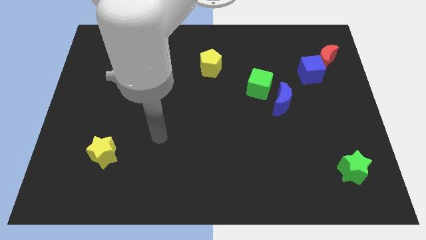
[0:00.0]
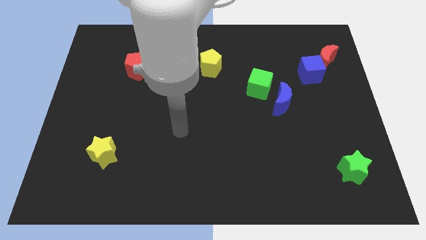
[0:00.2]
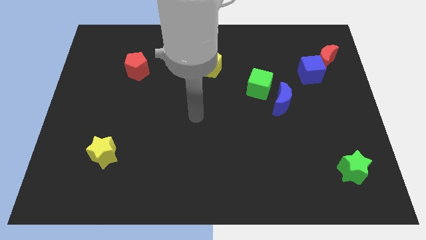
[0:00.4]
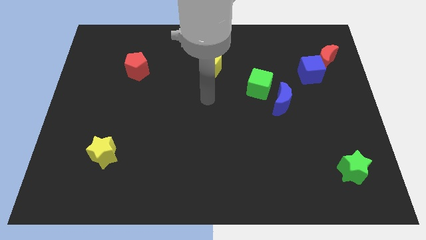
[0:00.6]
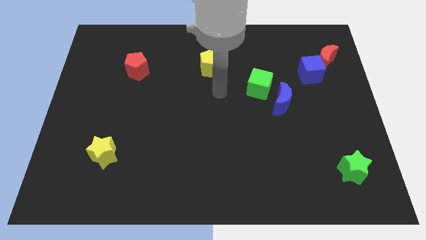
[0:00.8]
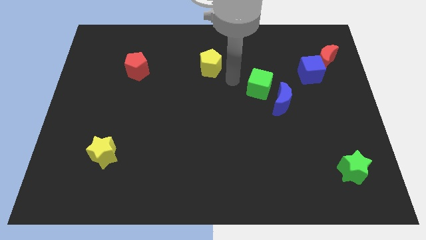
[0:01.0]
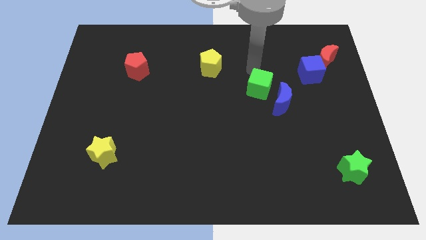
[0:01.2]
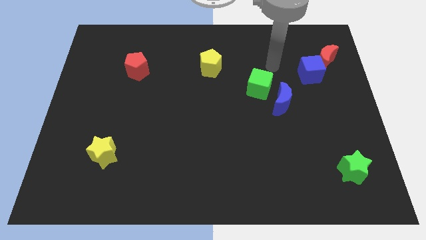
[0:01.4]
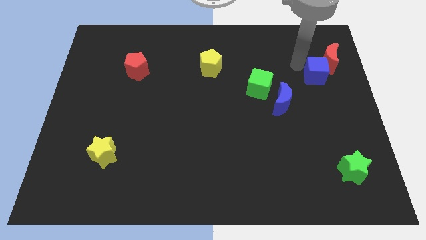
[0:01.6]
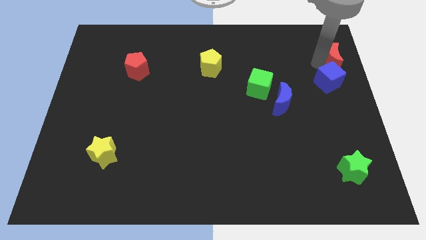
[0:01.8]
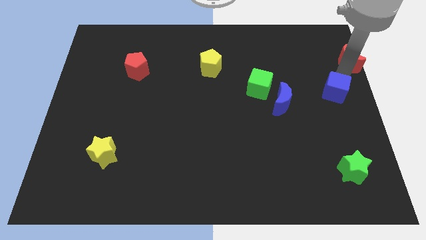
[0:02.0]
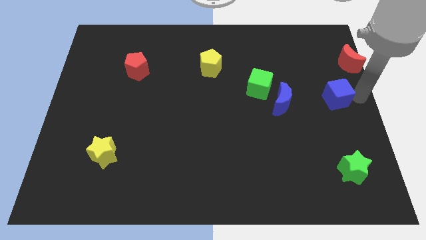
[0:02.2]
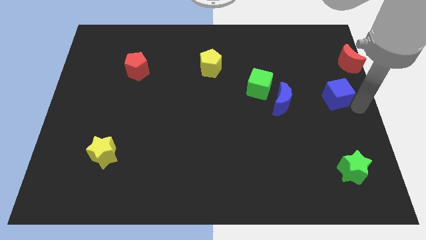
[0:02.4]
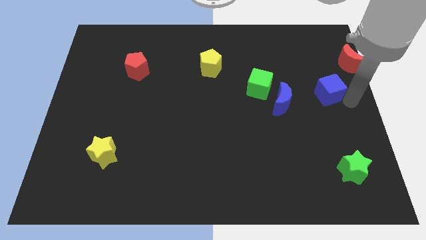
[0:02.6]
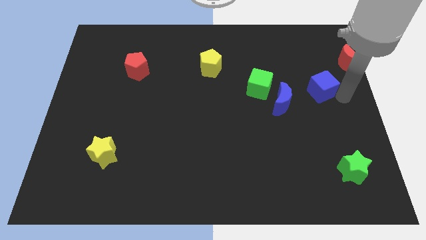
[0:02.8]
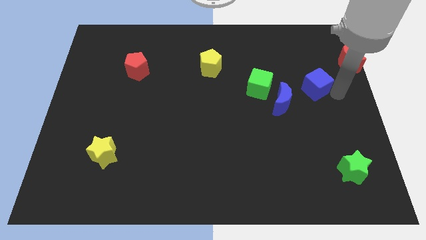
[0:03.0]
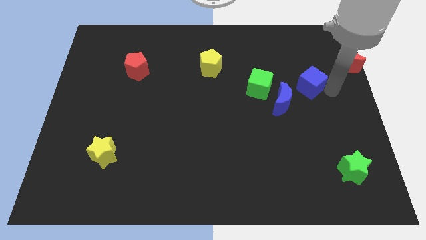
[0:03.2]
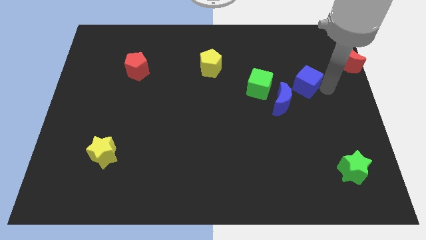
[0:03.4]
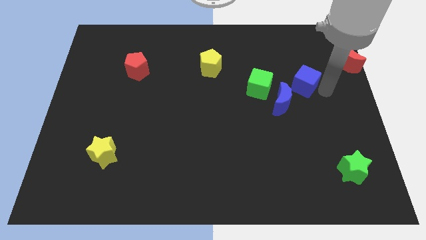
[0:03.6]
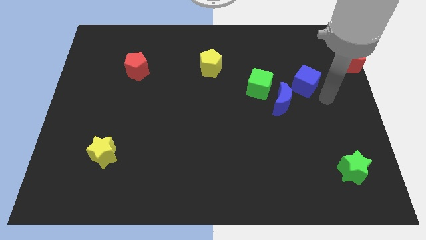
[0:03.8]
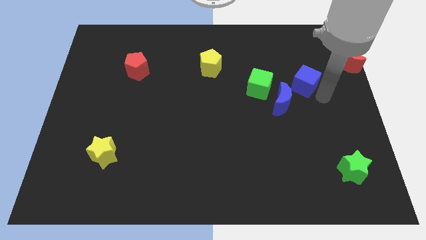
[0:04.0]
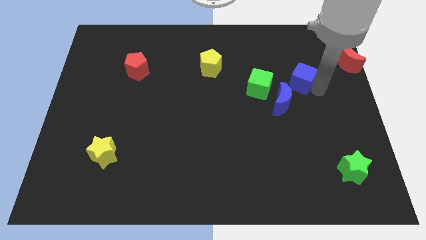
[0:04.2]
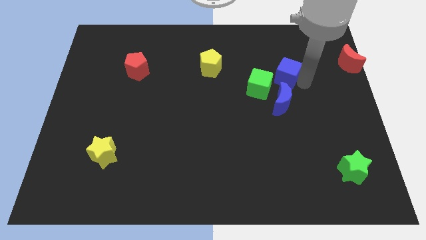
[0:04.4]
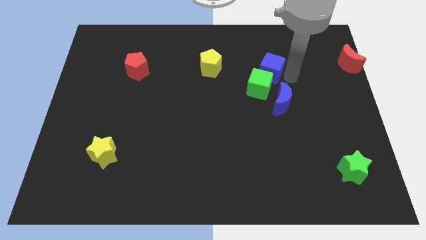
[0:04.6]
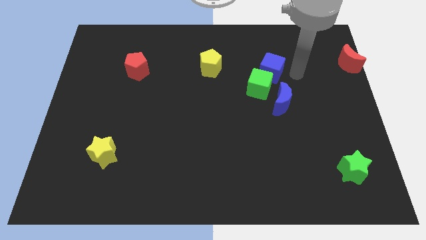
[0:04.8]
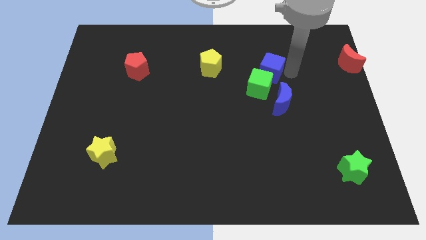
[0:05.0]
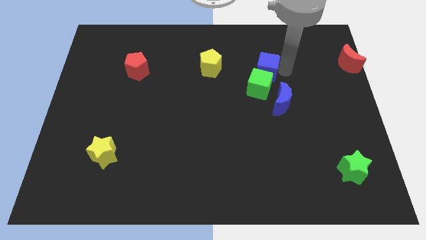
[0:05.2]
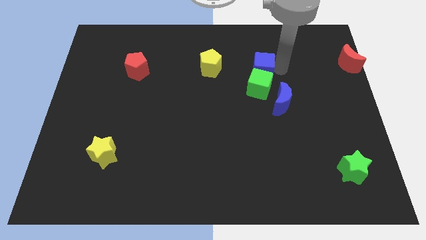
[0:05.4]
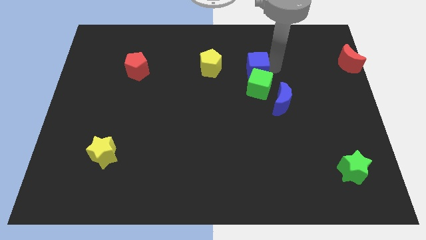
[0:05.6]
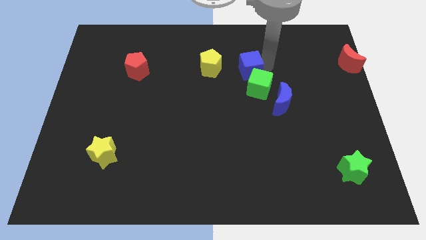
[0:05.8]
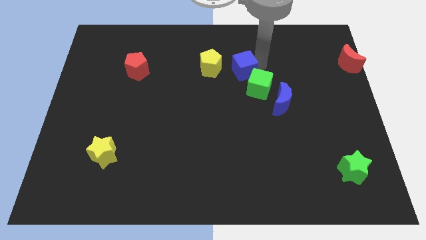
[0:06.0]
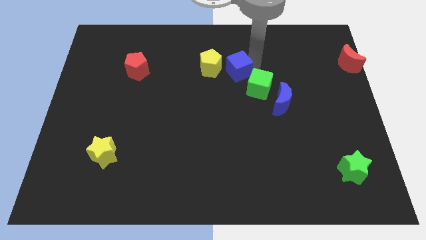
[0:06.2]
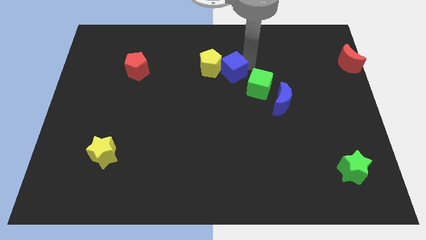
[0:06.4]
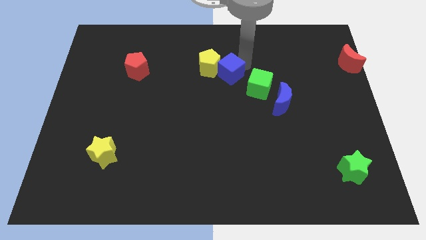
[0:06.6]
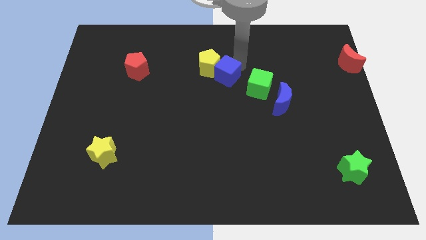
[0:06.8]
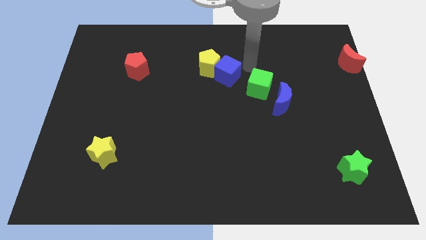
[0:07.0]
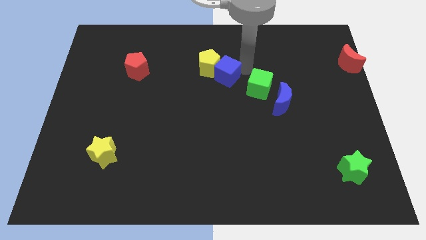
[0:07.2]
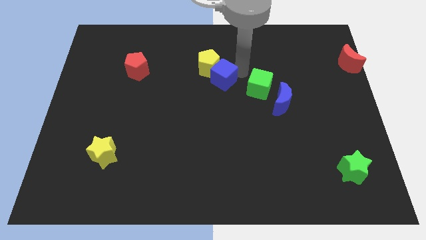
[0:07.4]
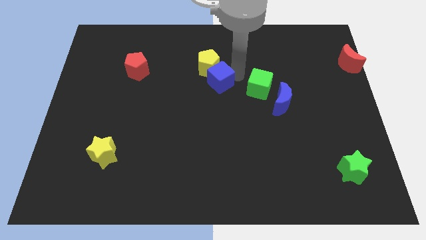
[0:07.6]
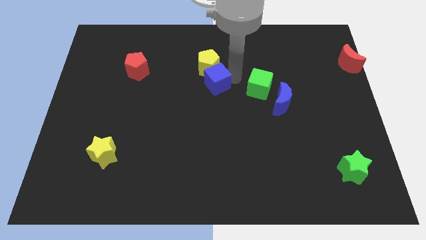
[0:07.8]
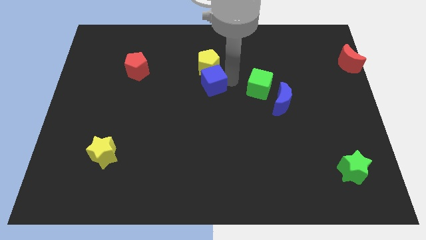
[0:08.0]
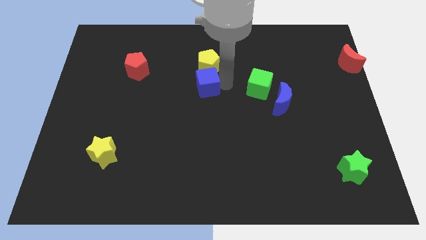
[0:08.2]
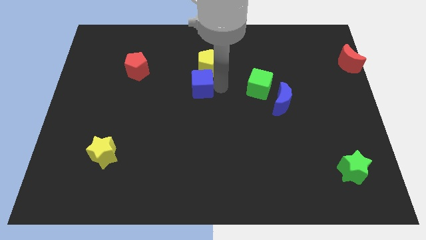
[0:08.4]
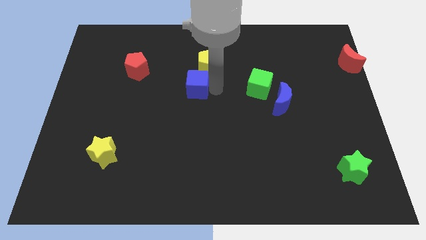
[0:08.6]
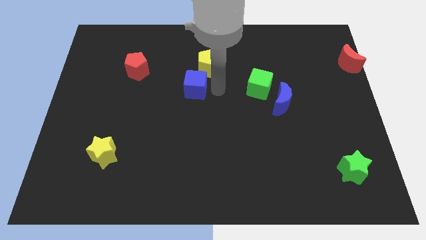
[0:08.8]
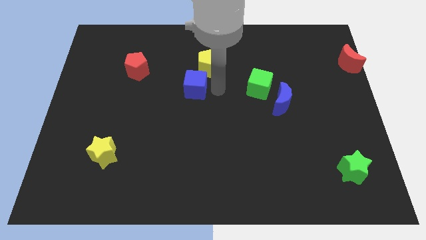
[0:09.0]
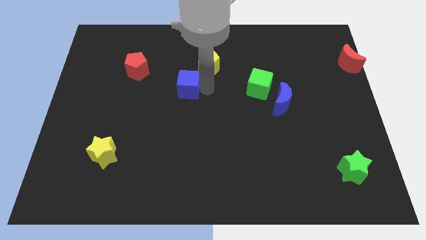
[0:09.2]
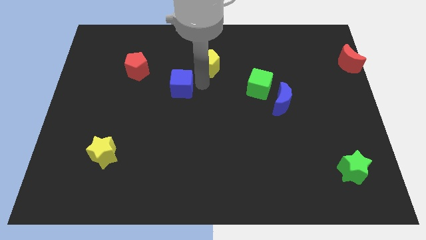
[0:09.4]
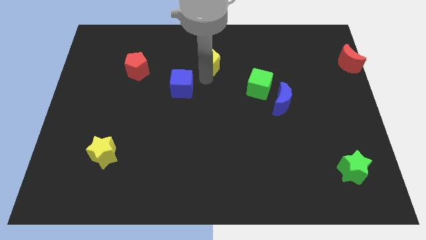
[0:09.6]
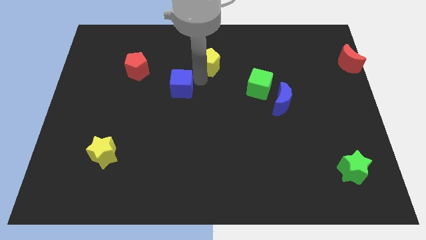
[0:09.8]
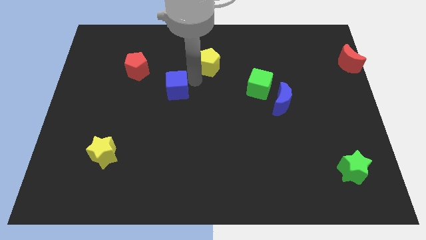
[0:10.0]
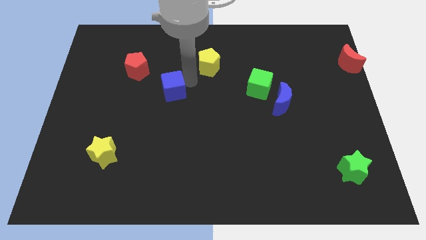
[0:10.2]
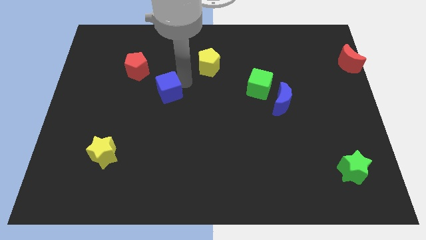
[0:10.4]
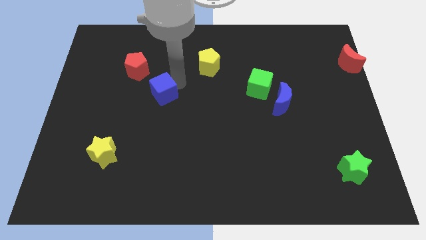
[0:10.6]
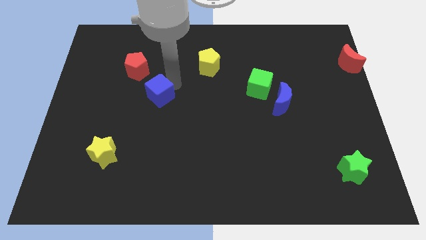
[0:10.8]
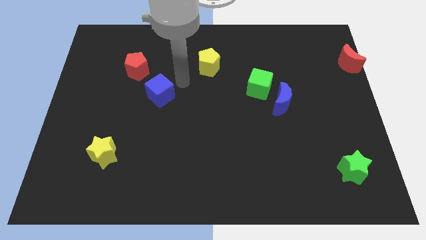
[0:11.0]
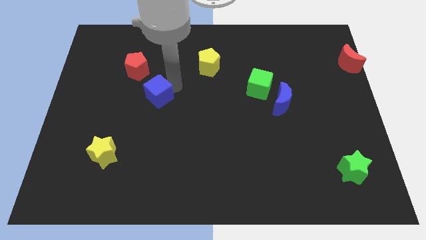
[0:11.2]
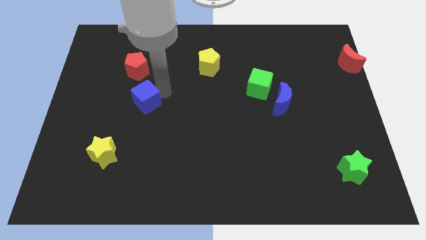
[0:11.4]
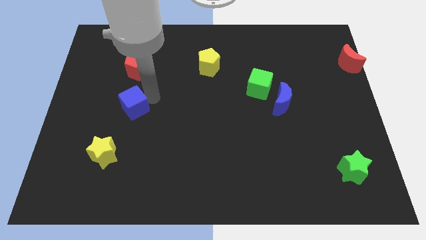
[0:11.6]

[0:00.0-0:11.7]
put the blue cube above the yellow star
